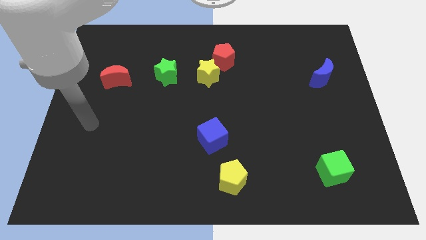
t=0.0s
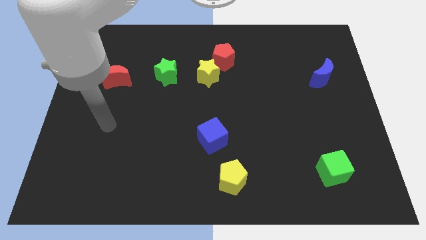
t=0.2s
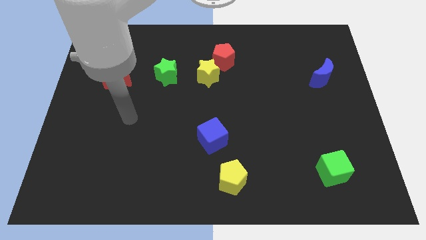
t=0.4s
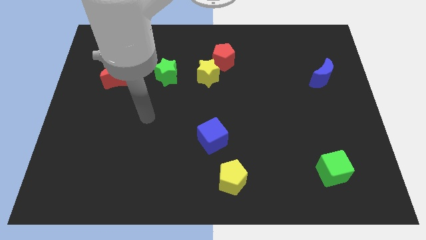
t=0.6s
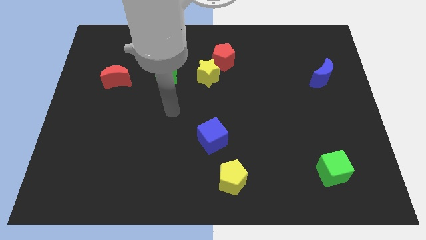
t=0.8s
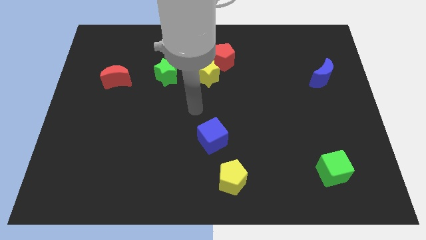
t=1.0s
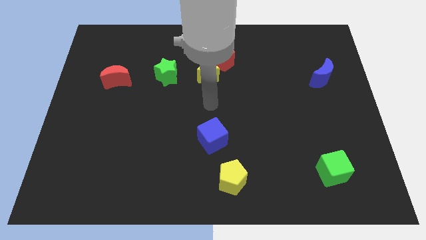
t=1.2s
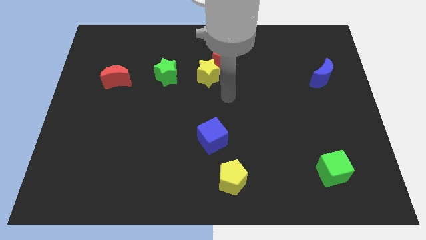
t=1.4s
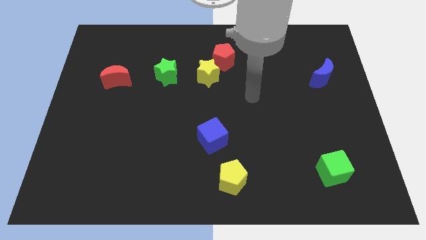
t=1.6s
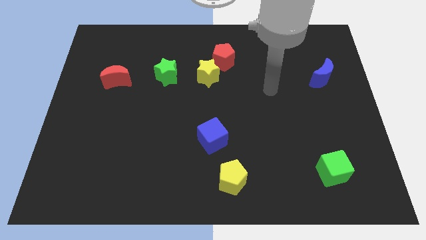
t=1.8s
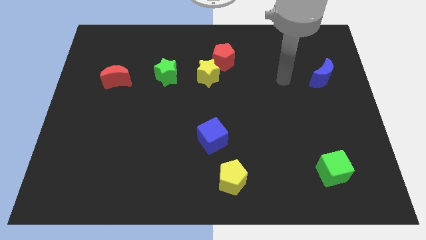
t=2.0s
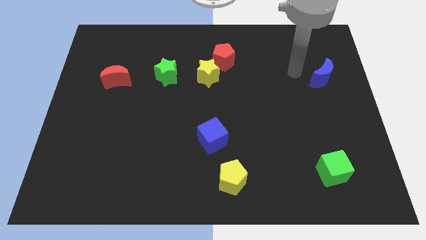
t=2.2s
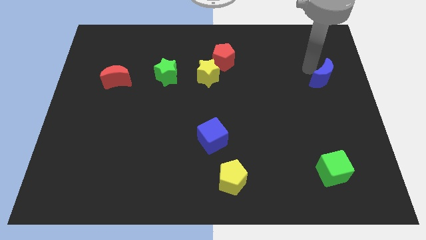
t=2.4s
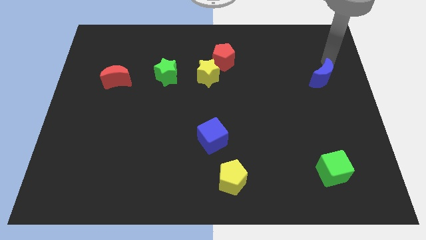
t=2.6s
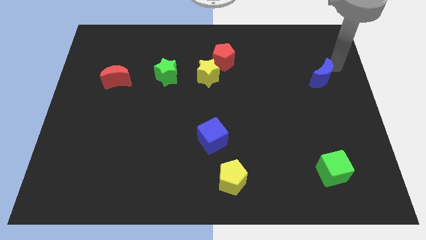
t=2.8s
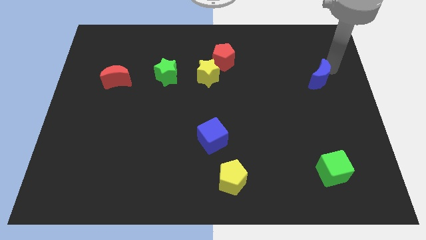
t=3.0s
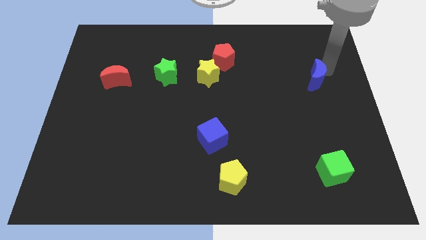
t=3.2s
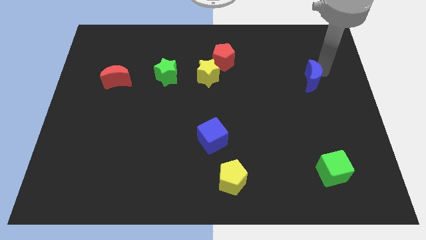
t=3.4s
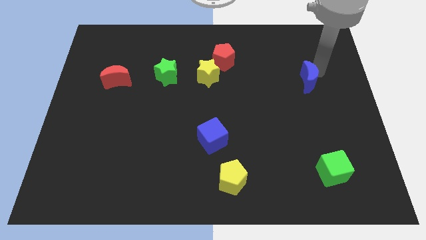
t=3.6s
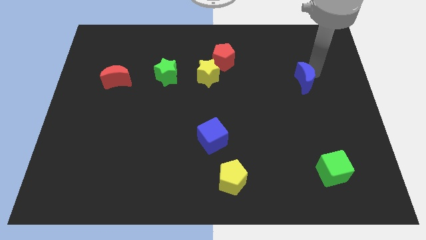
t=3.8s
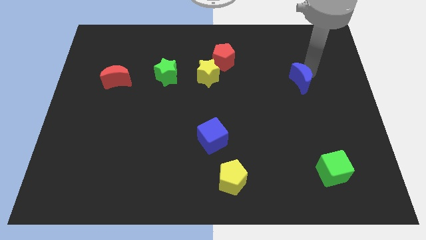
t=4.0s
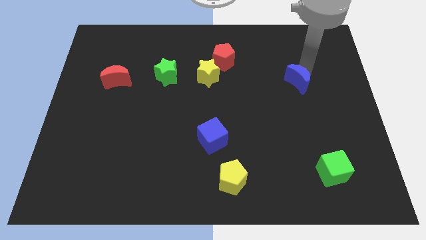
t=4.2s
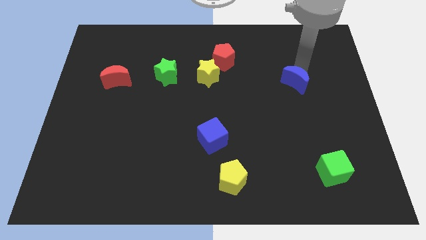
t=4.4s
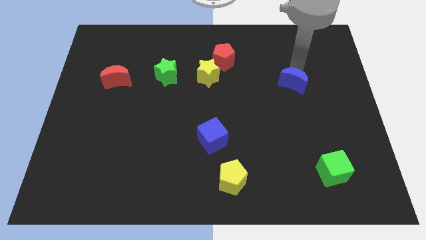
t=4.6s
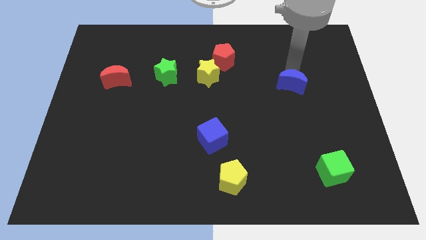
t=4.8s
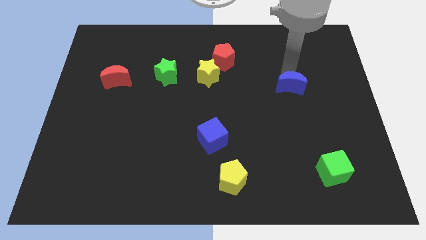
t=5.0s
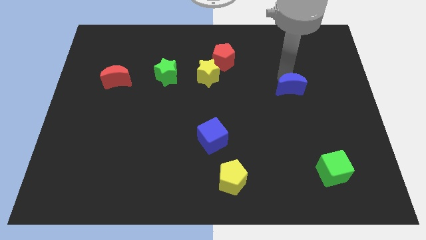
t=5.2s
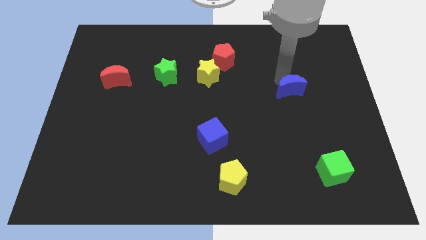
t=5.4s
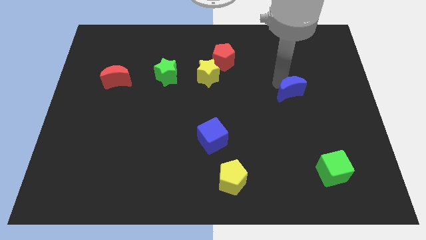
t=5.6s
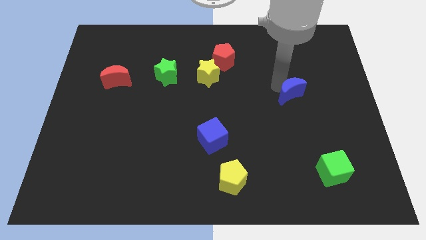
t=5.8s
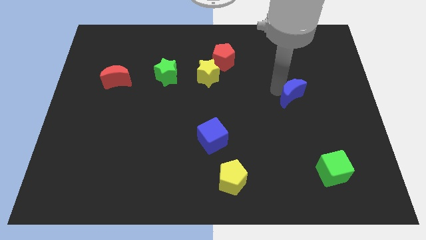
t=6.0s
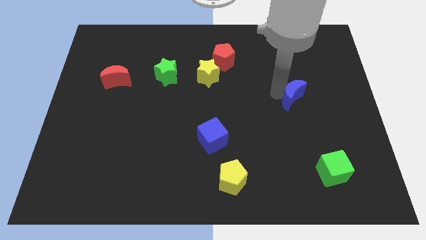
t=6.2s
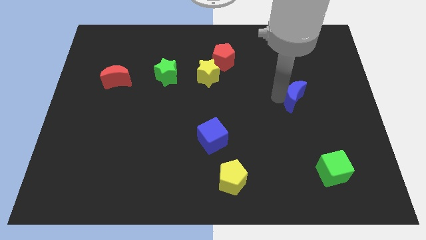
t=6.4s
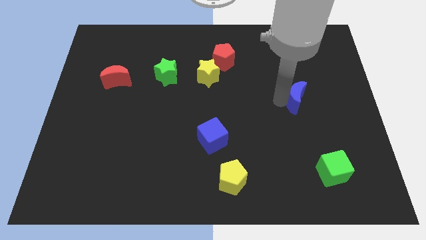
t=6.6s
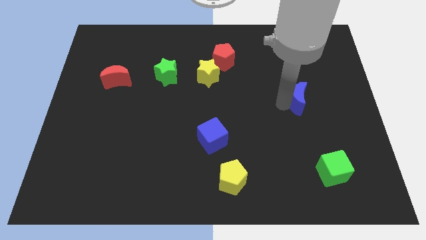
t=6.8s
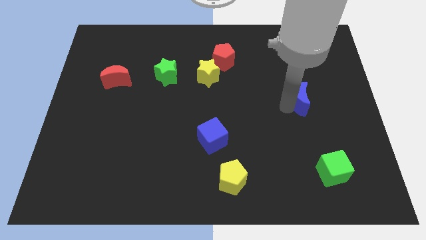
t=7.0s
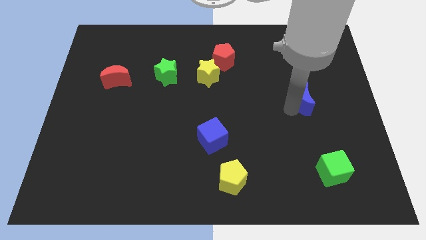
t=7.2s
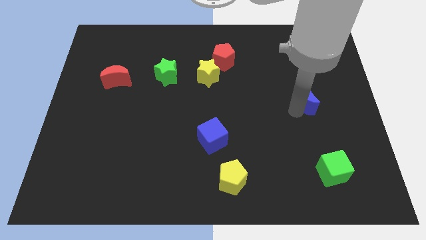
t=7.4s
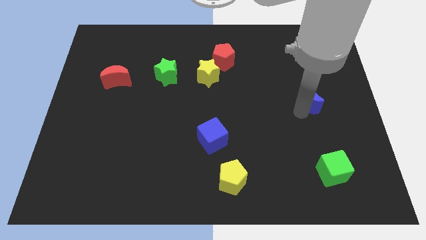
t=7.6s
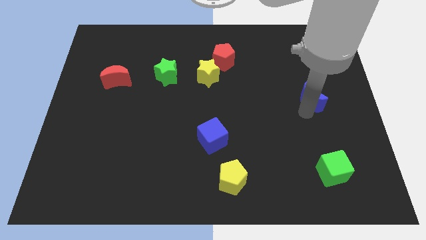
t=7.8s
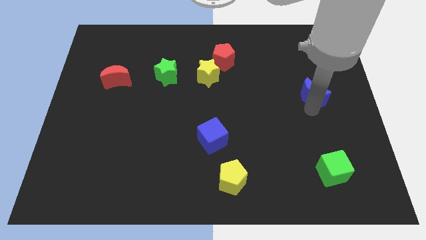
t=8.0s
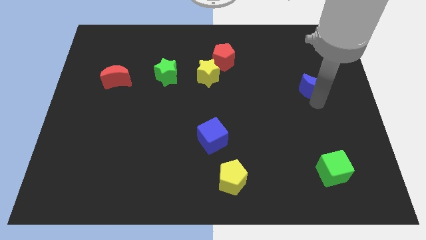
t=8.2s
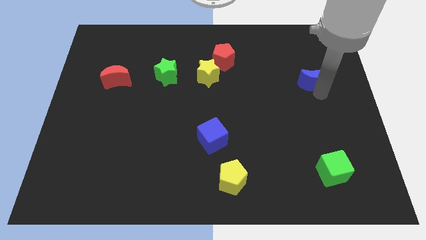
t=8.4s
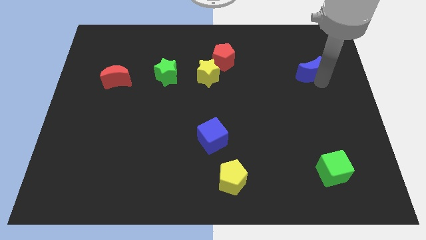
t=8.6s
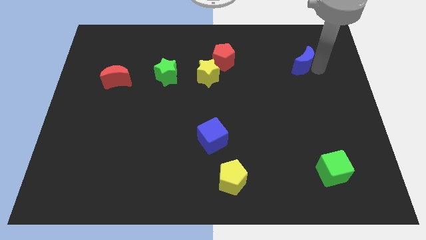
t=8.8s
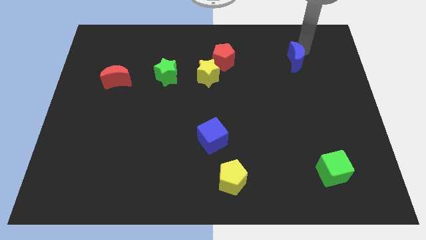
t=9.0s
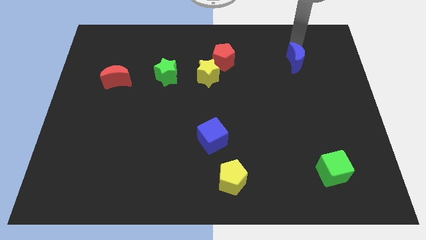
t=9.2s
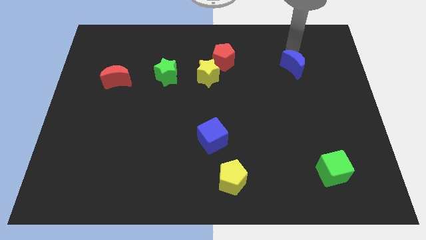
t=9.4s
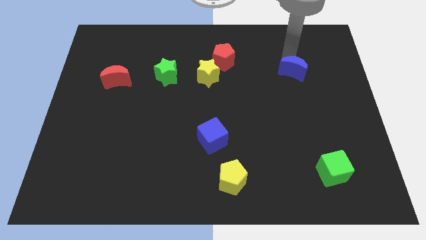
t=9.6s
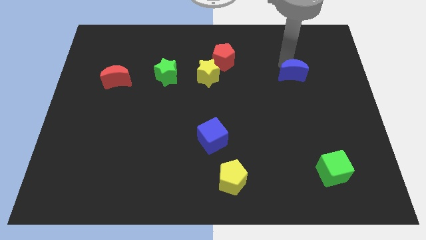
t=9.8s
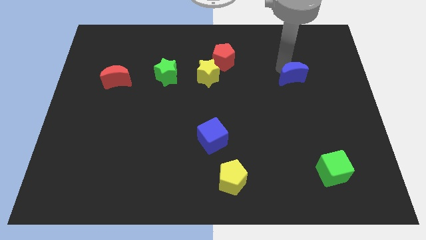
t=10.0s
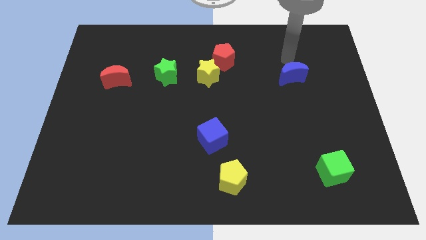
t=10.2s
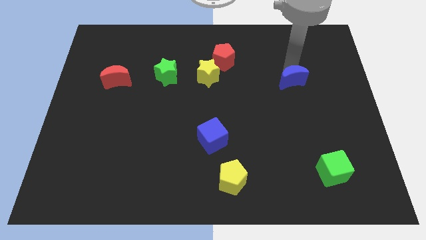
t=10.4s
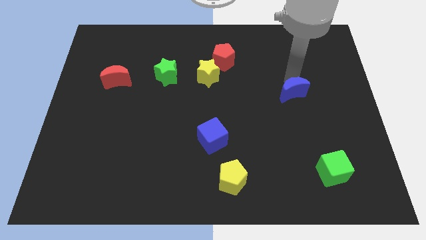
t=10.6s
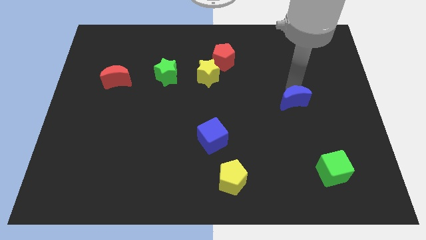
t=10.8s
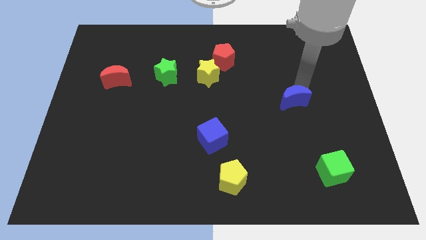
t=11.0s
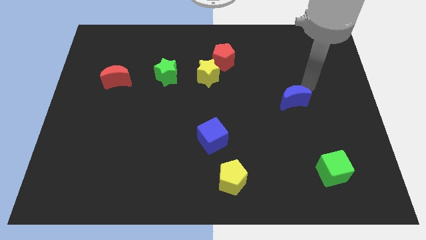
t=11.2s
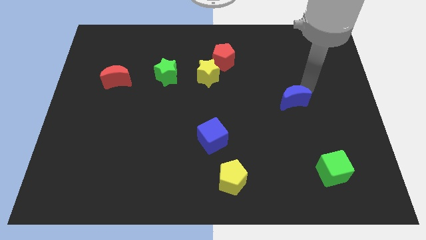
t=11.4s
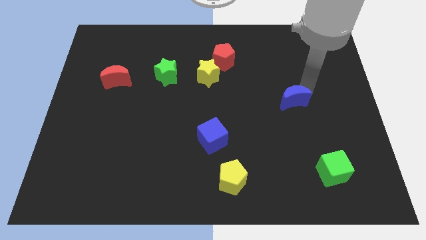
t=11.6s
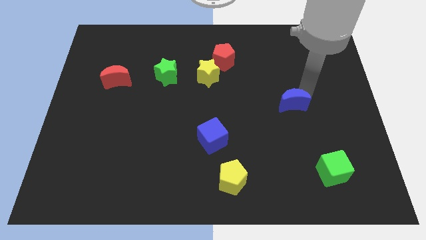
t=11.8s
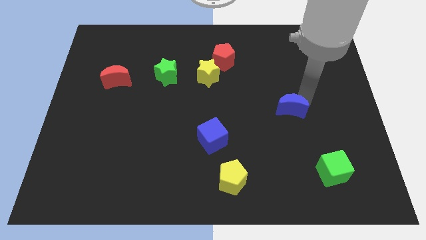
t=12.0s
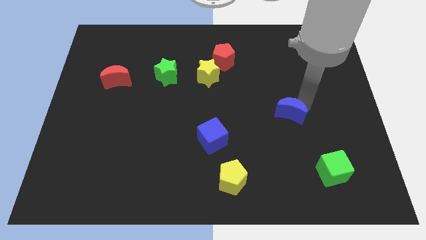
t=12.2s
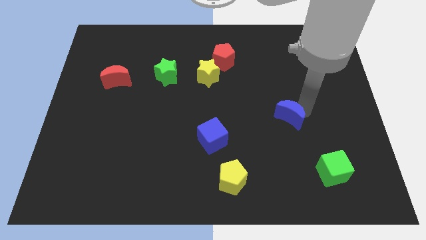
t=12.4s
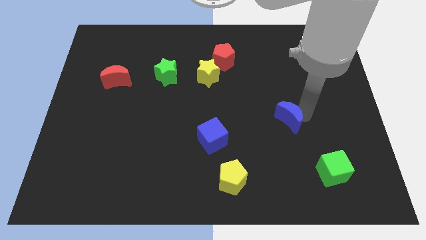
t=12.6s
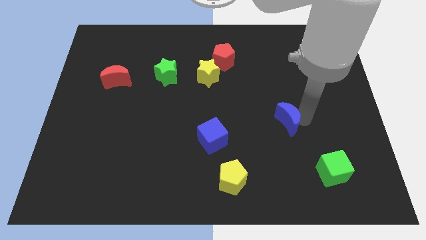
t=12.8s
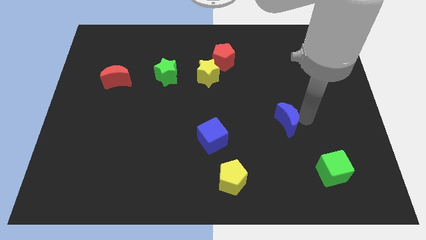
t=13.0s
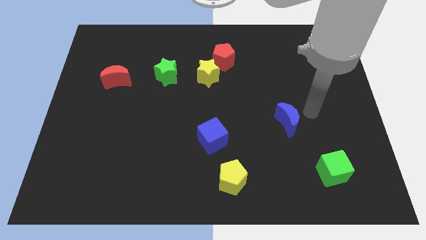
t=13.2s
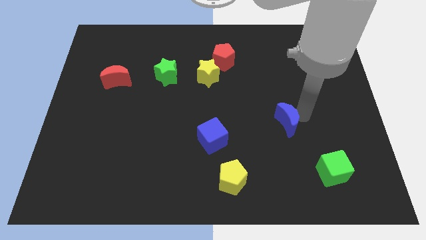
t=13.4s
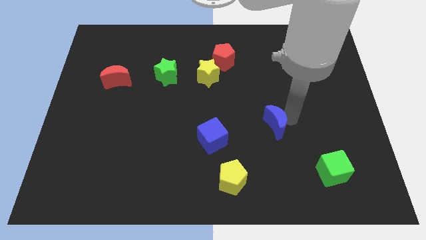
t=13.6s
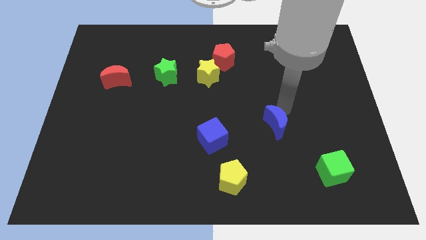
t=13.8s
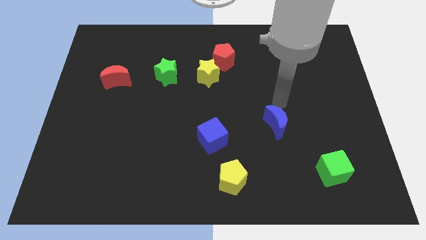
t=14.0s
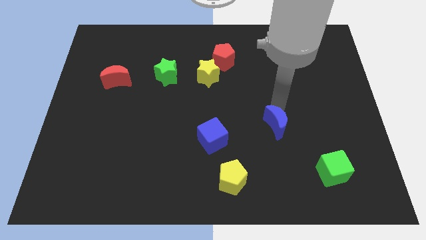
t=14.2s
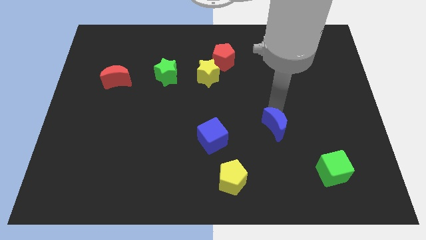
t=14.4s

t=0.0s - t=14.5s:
move the blue moon downwards and then left

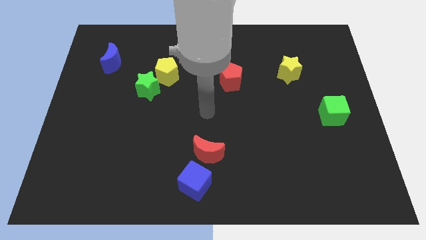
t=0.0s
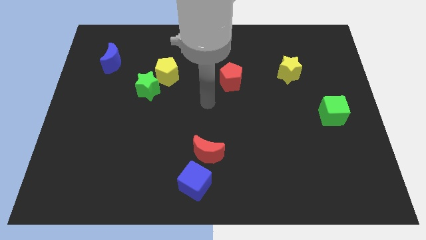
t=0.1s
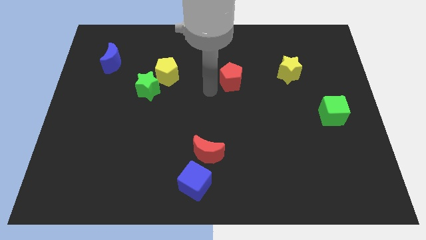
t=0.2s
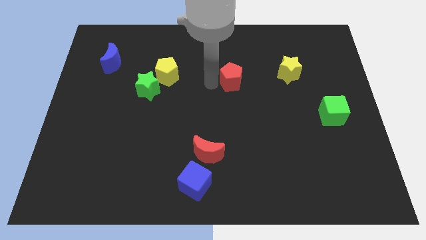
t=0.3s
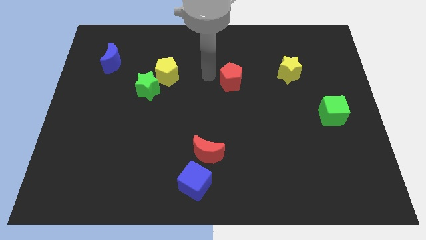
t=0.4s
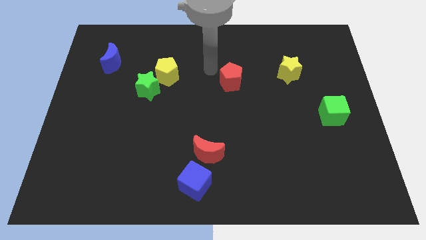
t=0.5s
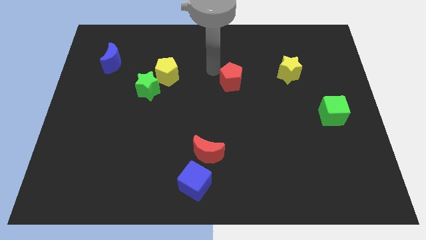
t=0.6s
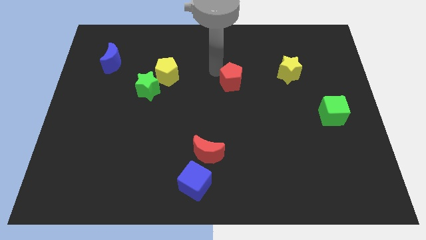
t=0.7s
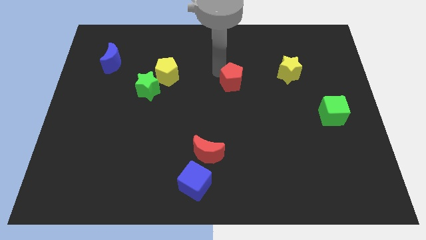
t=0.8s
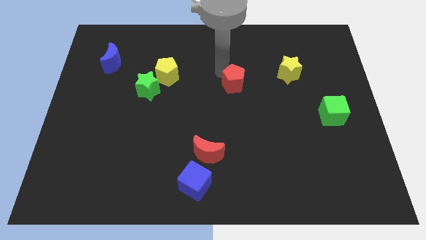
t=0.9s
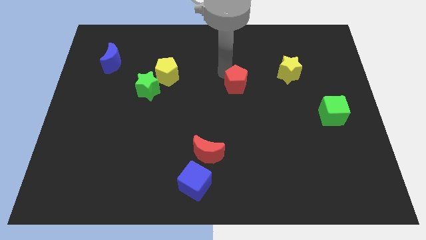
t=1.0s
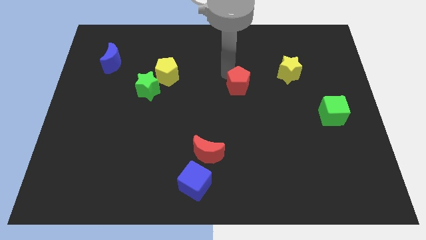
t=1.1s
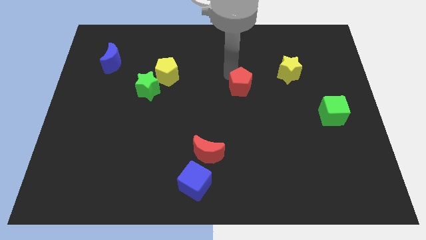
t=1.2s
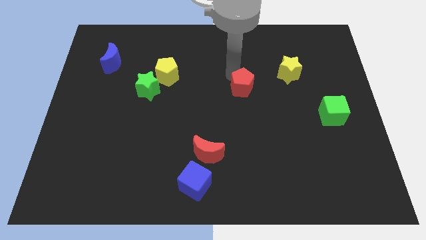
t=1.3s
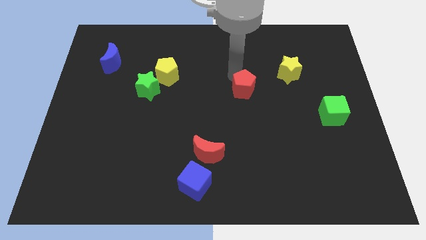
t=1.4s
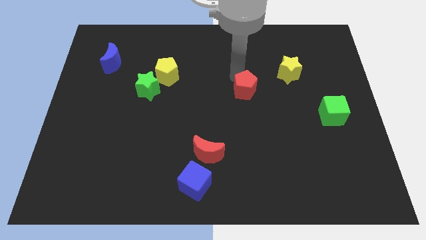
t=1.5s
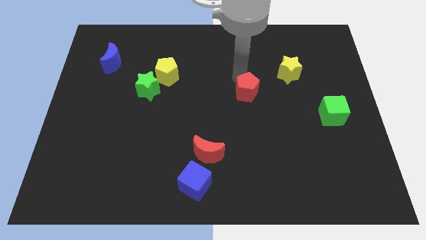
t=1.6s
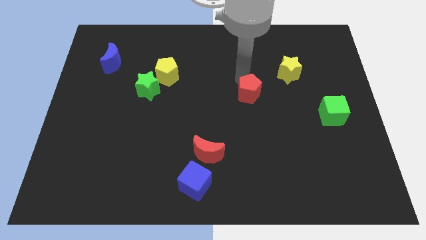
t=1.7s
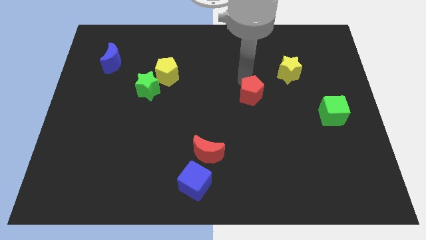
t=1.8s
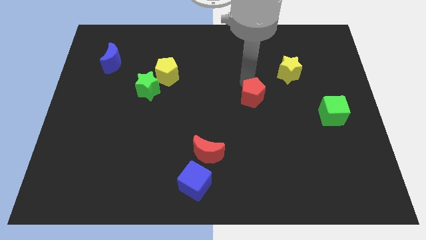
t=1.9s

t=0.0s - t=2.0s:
slightly push the red pentagon down and right
